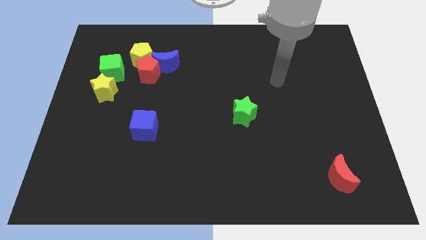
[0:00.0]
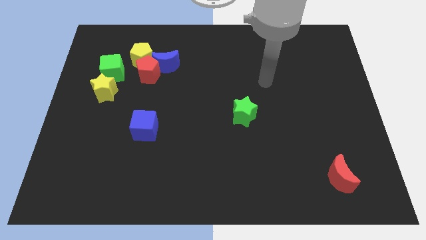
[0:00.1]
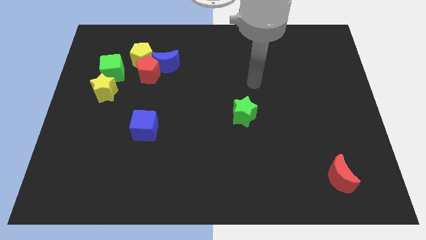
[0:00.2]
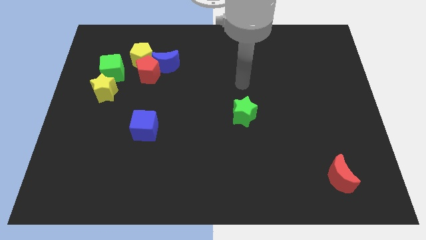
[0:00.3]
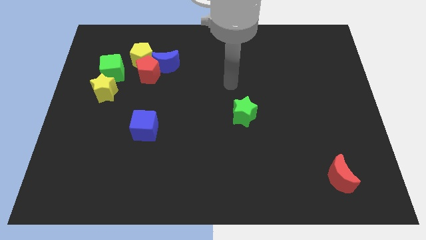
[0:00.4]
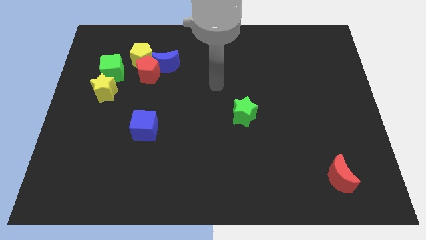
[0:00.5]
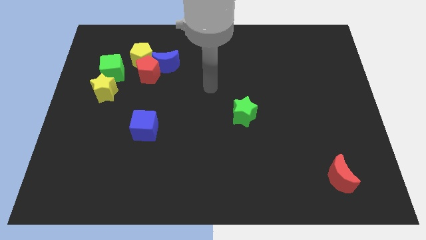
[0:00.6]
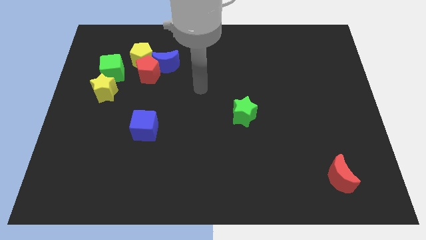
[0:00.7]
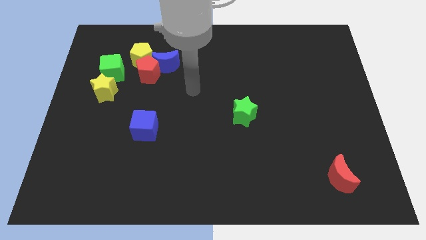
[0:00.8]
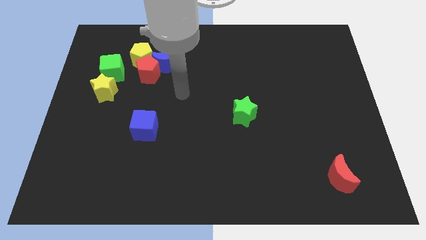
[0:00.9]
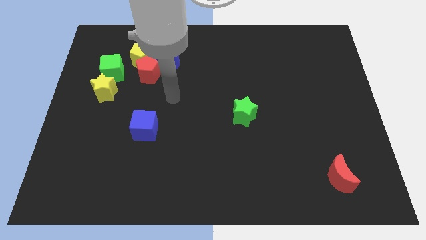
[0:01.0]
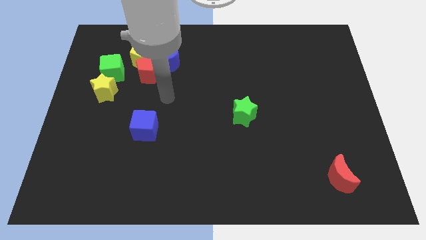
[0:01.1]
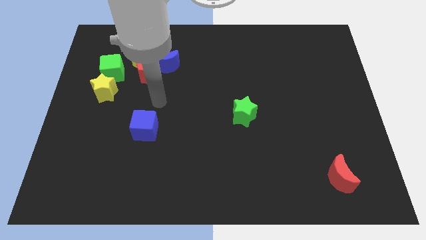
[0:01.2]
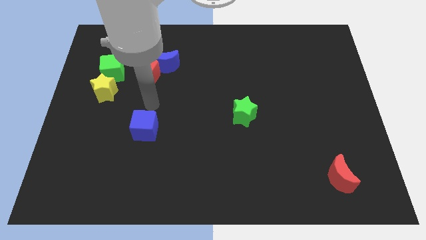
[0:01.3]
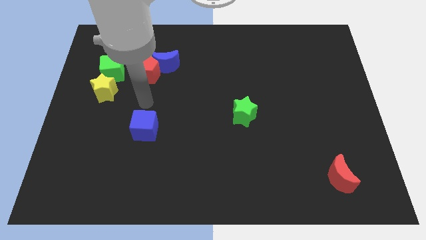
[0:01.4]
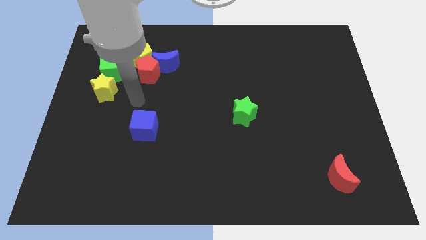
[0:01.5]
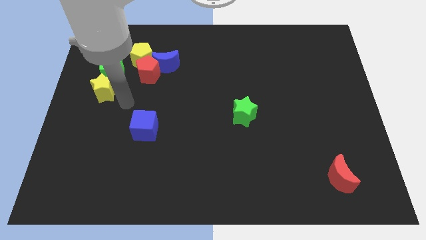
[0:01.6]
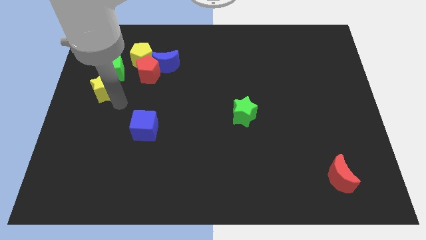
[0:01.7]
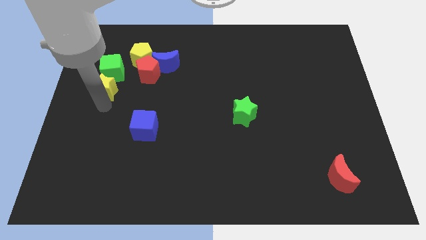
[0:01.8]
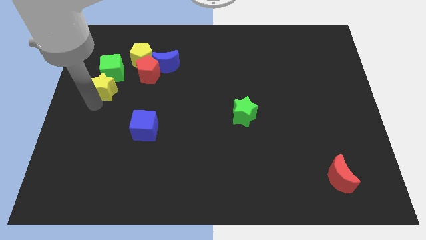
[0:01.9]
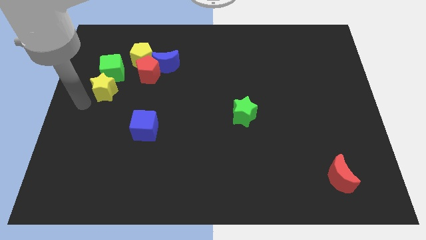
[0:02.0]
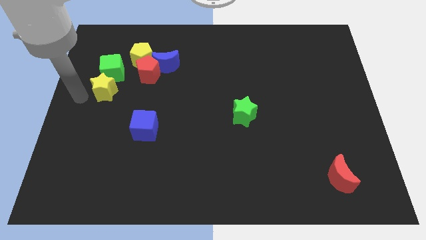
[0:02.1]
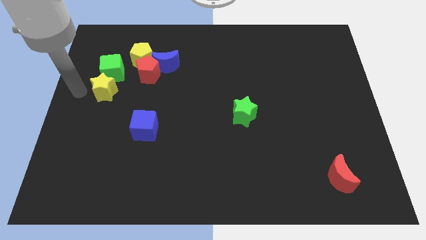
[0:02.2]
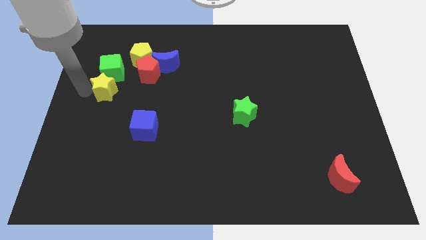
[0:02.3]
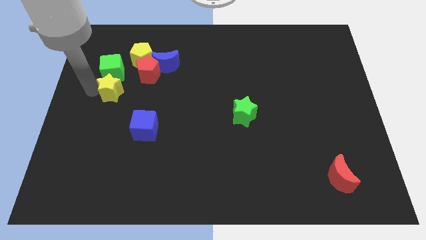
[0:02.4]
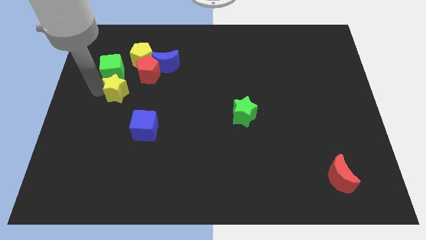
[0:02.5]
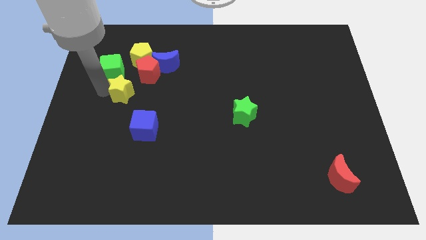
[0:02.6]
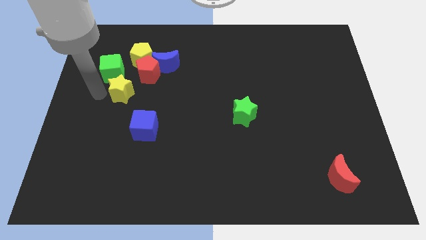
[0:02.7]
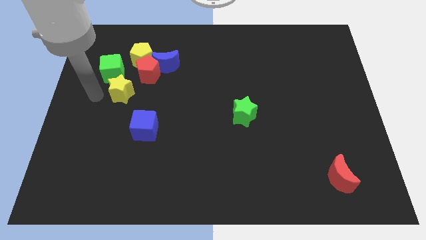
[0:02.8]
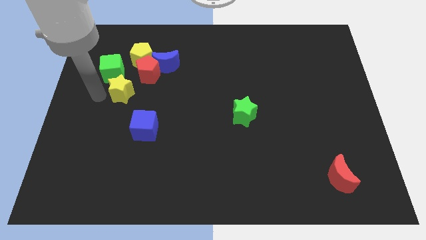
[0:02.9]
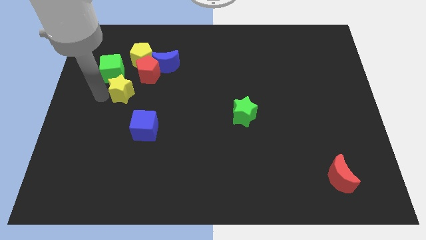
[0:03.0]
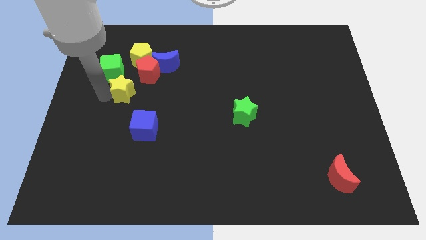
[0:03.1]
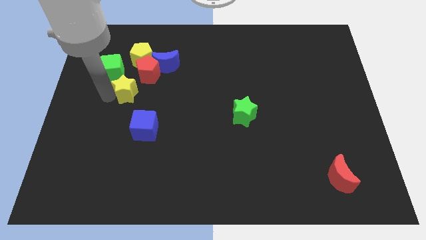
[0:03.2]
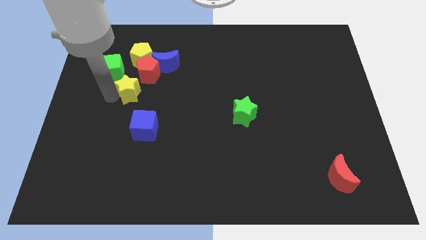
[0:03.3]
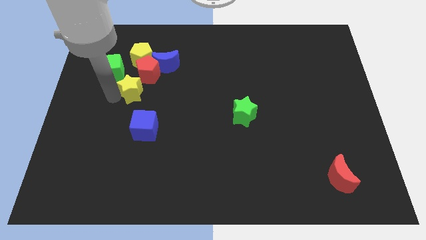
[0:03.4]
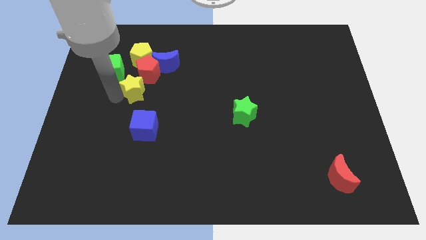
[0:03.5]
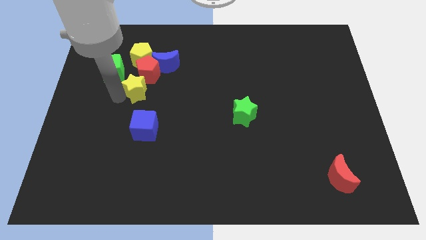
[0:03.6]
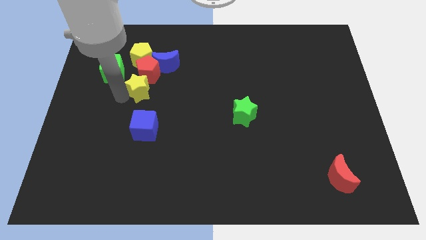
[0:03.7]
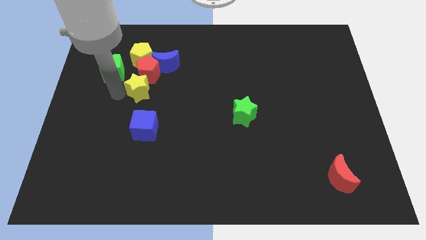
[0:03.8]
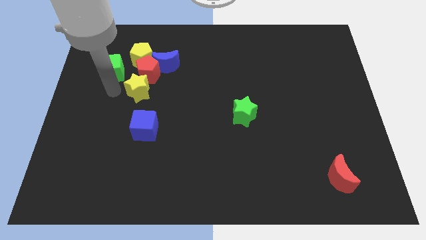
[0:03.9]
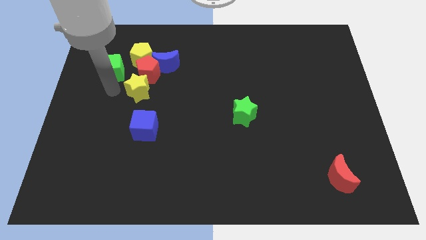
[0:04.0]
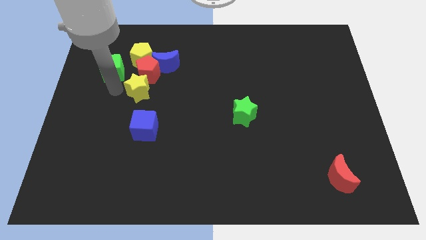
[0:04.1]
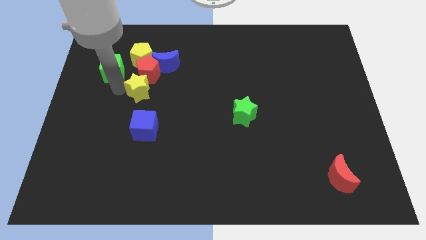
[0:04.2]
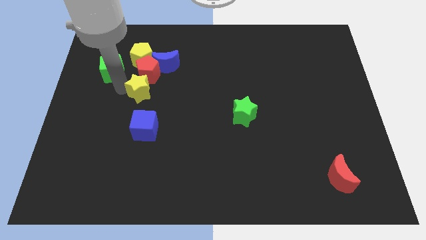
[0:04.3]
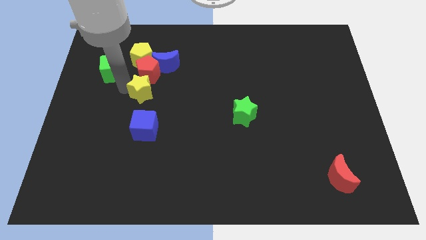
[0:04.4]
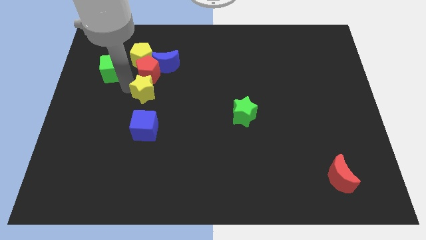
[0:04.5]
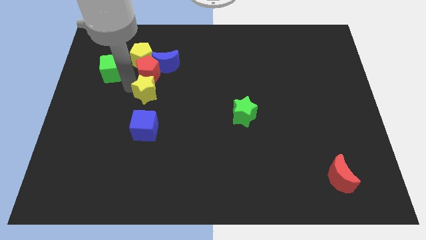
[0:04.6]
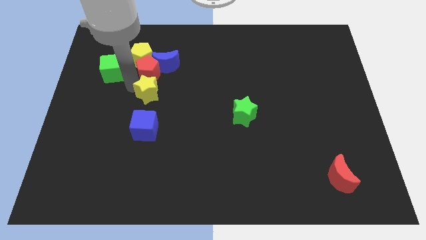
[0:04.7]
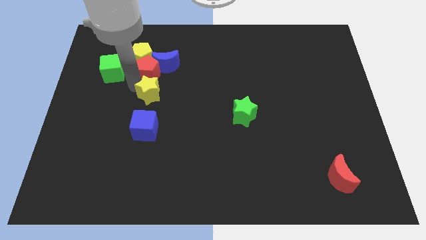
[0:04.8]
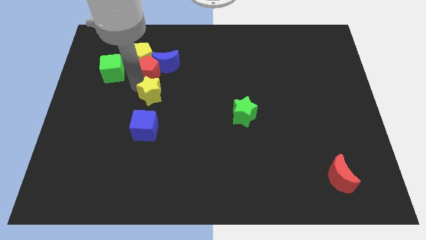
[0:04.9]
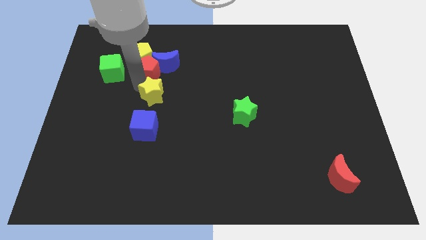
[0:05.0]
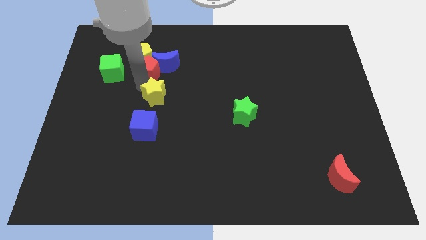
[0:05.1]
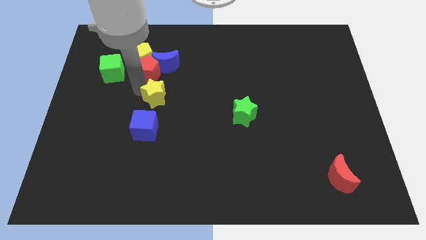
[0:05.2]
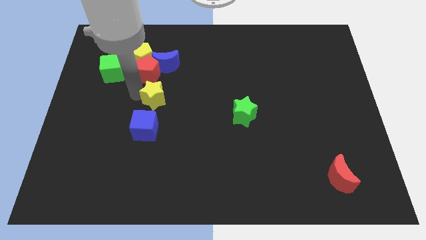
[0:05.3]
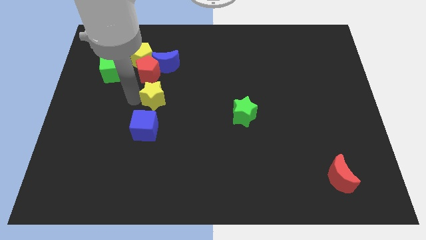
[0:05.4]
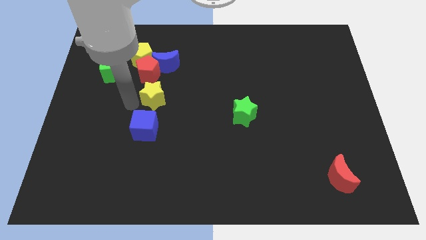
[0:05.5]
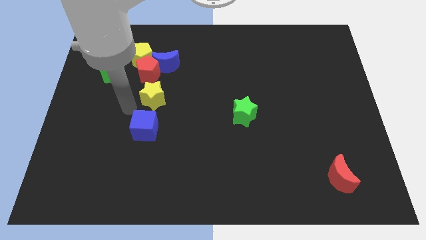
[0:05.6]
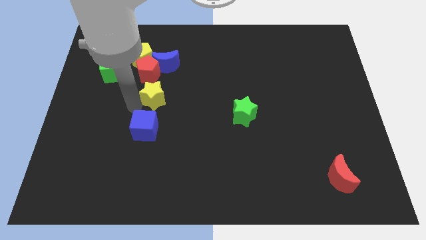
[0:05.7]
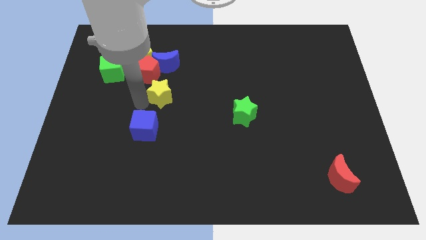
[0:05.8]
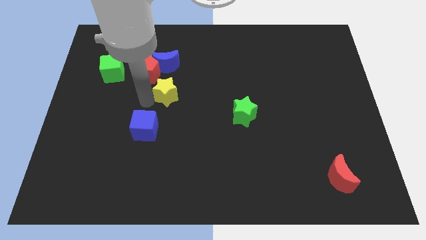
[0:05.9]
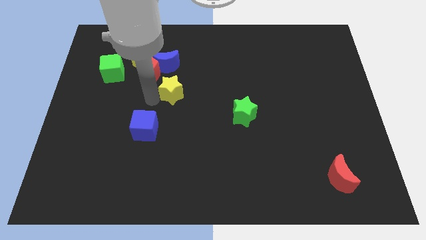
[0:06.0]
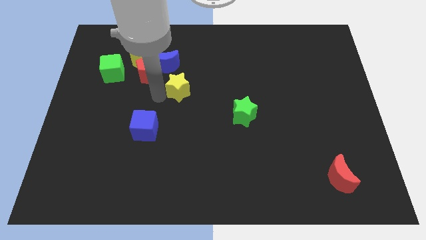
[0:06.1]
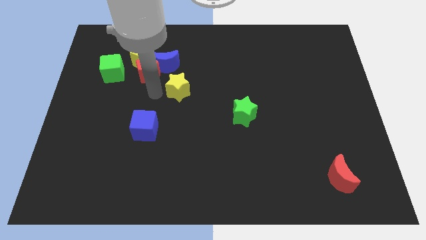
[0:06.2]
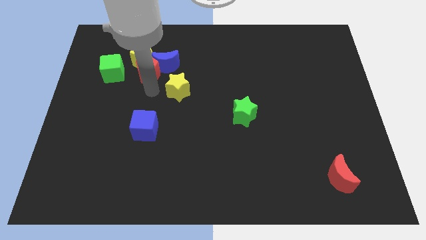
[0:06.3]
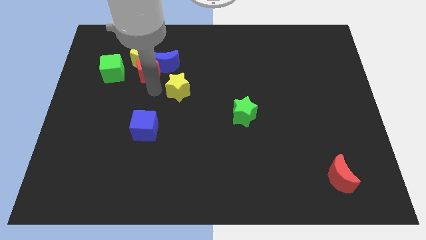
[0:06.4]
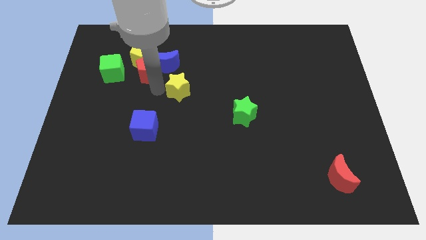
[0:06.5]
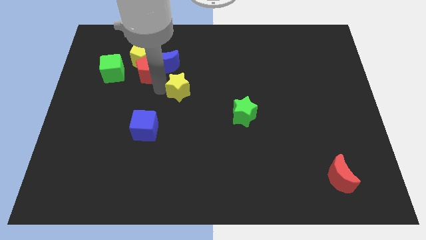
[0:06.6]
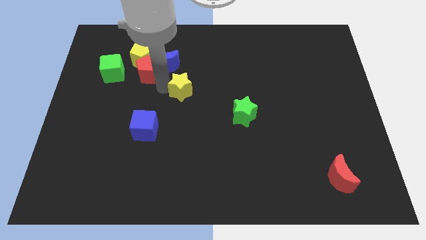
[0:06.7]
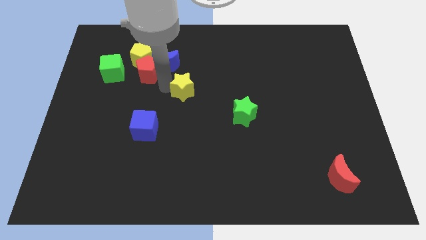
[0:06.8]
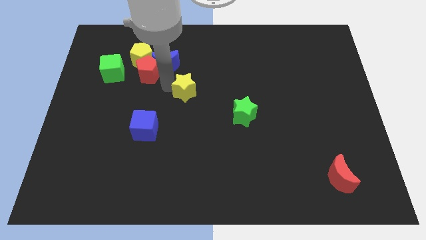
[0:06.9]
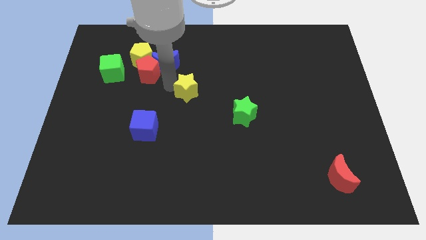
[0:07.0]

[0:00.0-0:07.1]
slide the yellow star to the right

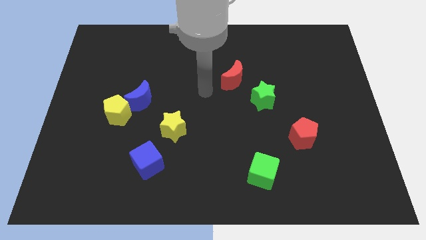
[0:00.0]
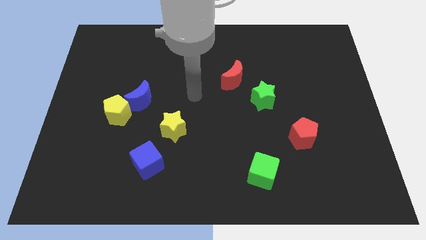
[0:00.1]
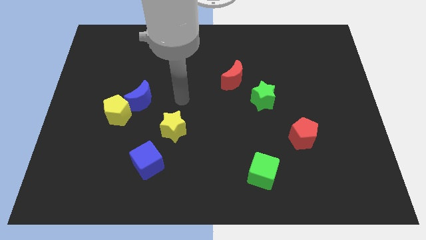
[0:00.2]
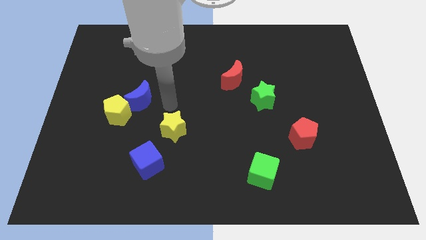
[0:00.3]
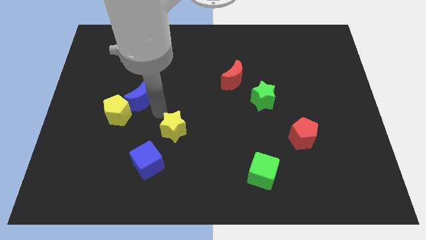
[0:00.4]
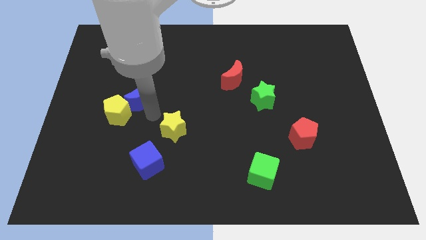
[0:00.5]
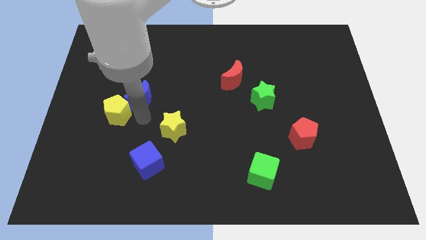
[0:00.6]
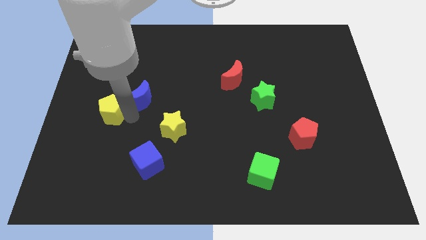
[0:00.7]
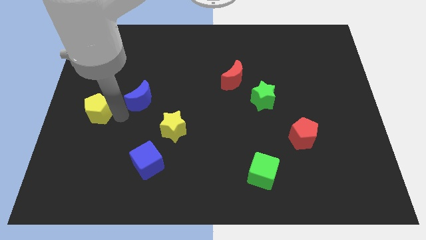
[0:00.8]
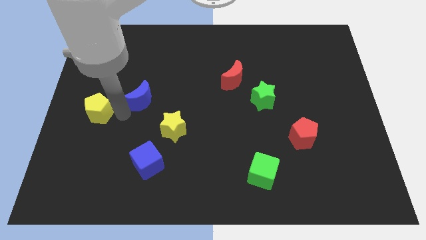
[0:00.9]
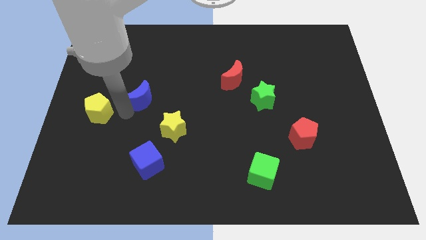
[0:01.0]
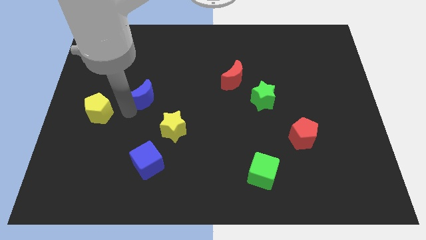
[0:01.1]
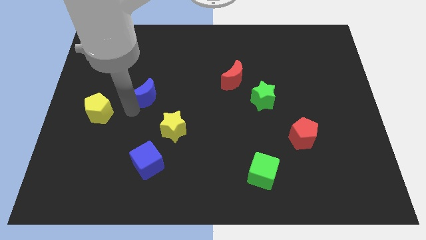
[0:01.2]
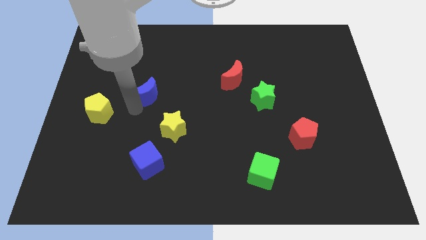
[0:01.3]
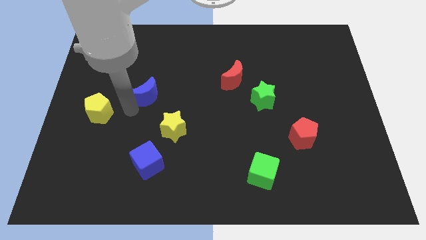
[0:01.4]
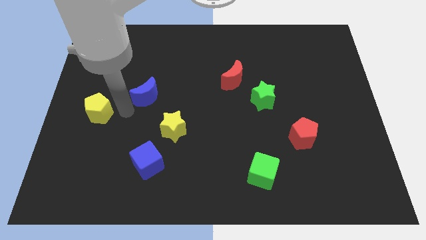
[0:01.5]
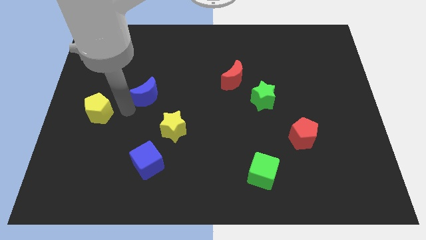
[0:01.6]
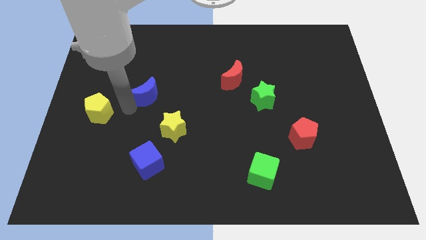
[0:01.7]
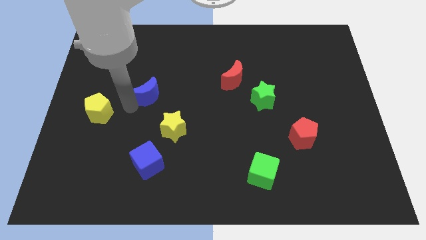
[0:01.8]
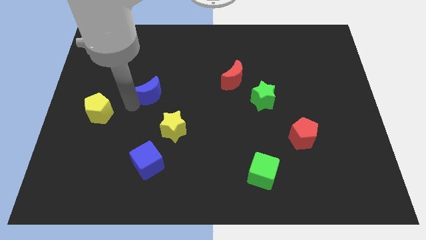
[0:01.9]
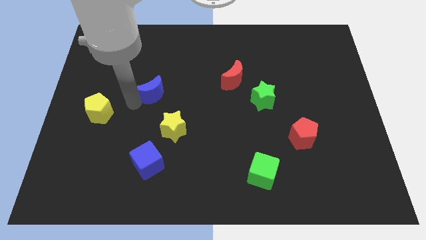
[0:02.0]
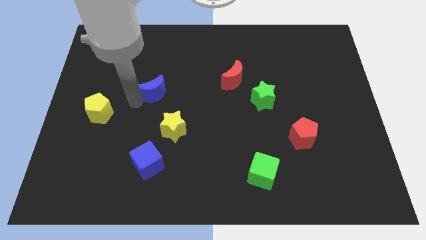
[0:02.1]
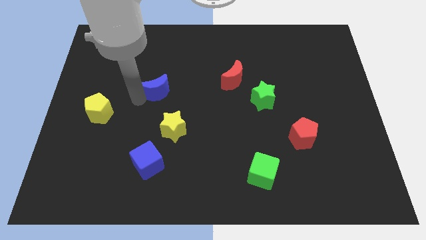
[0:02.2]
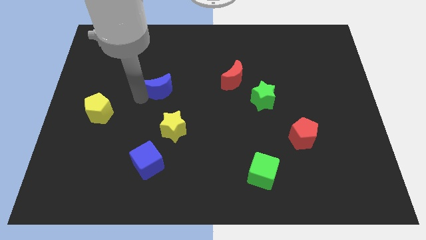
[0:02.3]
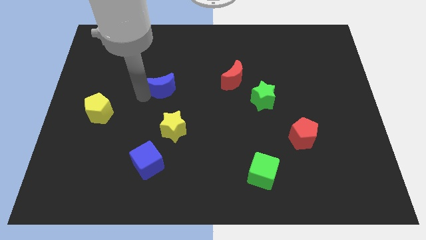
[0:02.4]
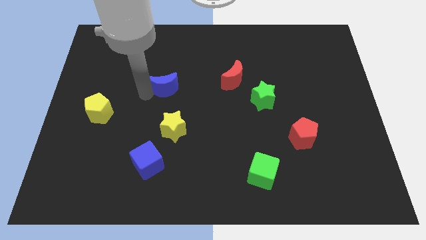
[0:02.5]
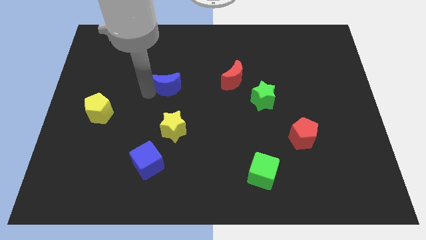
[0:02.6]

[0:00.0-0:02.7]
push the blue moon slightly up and to the right diagonally
